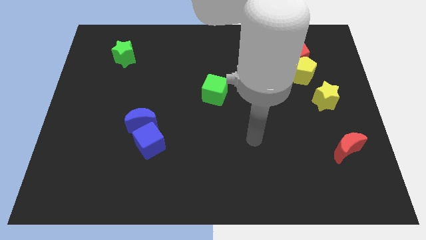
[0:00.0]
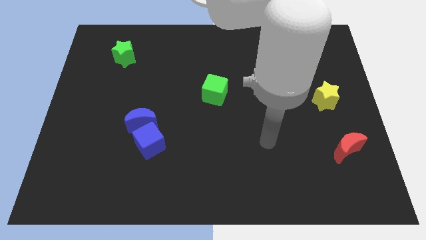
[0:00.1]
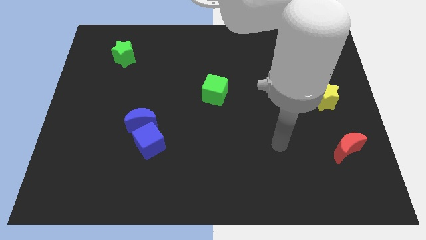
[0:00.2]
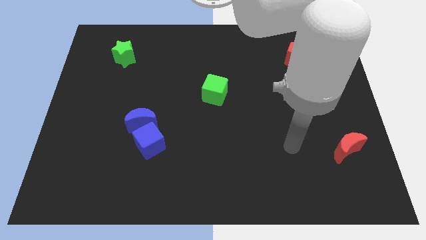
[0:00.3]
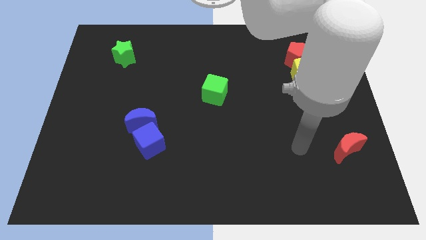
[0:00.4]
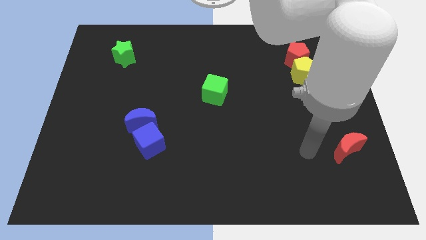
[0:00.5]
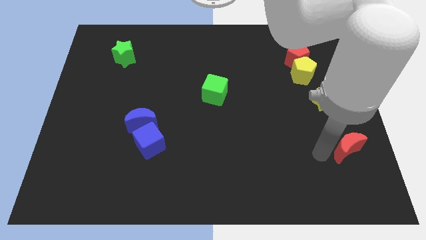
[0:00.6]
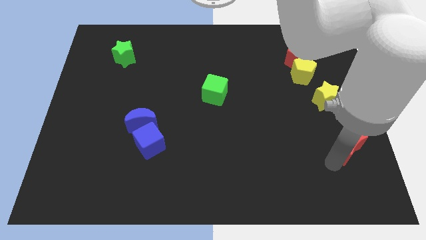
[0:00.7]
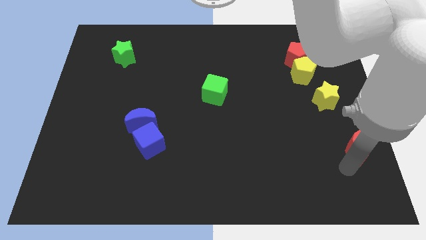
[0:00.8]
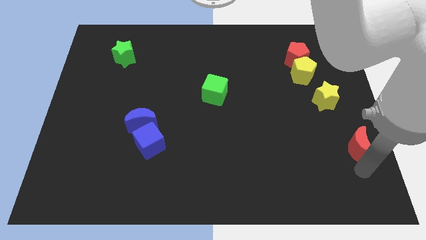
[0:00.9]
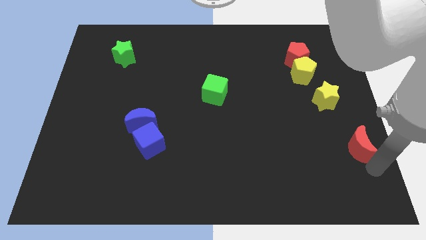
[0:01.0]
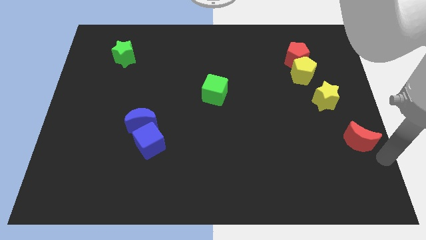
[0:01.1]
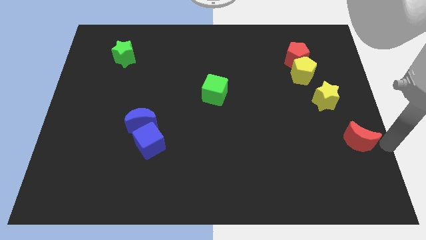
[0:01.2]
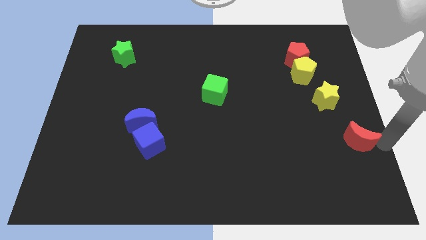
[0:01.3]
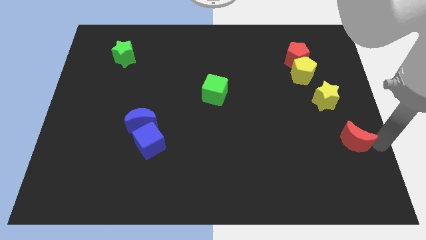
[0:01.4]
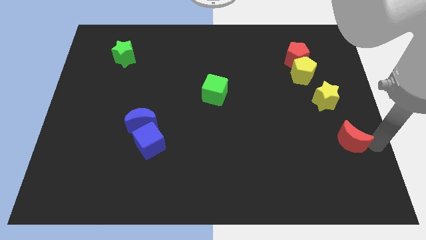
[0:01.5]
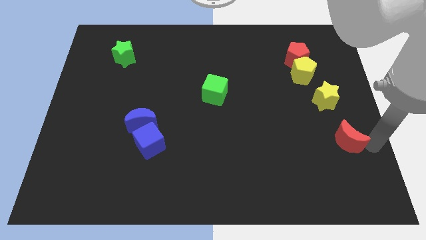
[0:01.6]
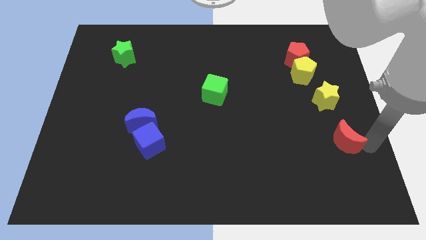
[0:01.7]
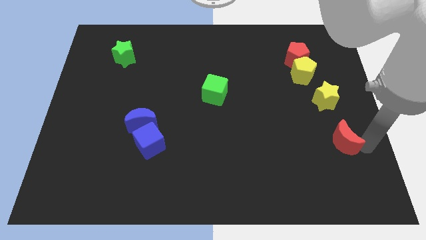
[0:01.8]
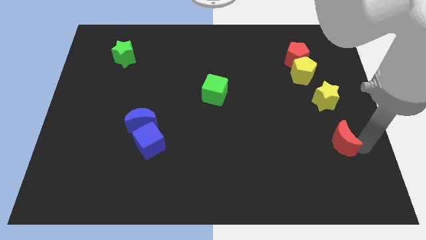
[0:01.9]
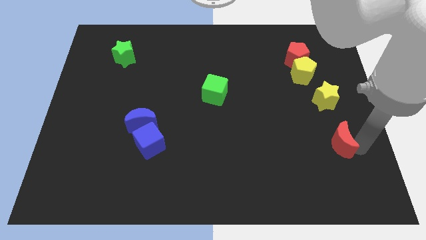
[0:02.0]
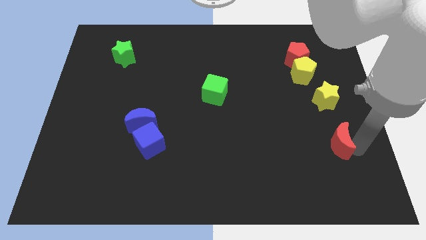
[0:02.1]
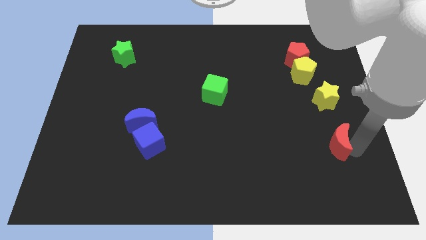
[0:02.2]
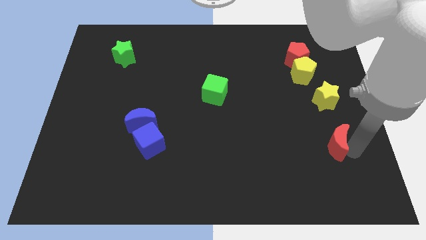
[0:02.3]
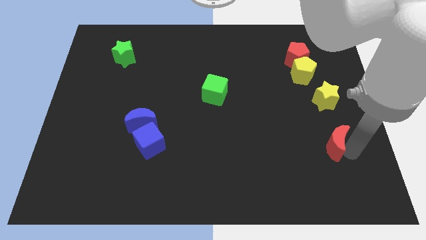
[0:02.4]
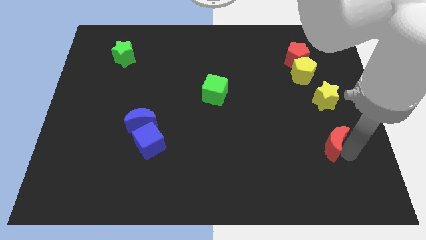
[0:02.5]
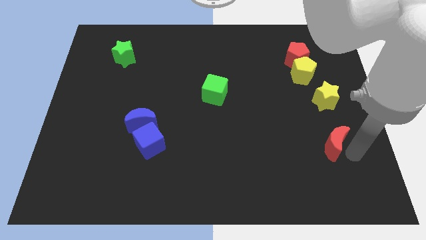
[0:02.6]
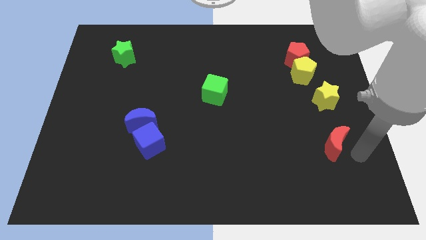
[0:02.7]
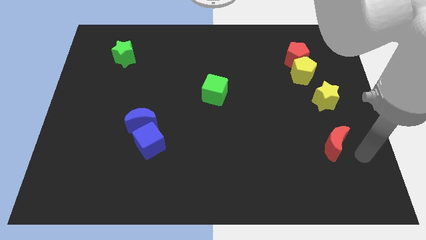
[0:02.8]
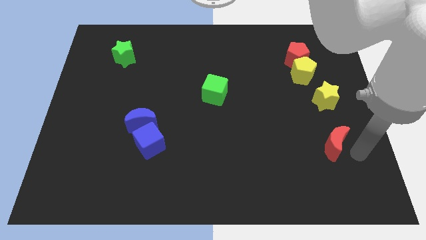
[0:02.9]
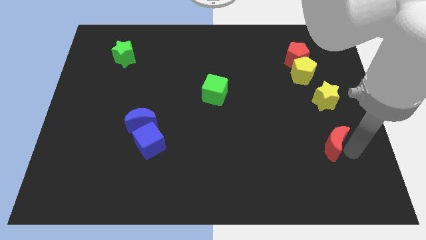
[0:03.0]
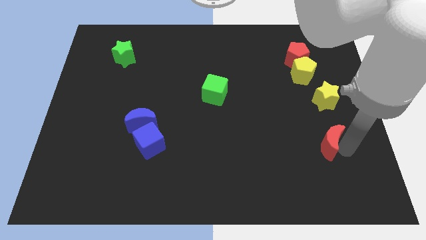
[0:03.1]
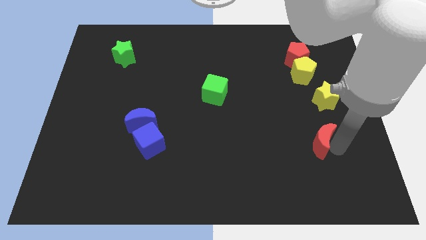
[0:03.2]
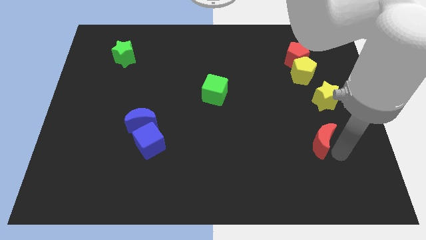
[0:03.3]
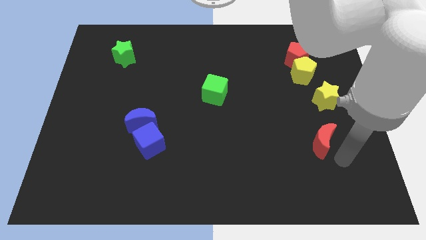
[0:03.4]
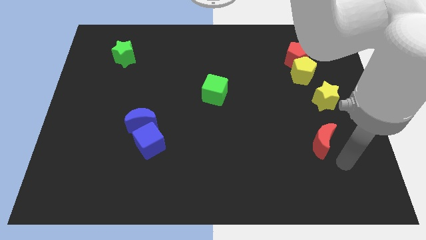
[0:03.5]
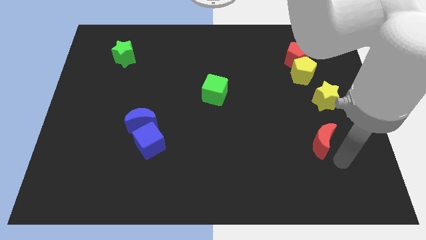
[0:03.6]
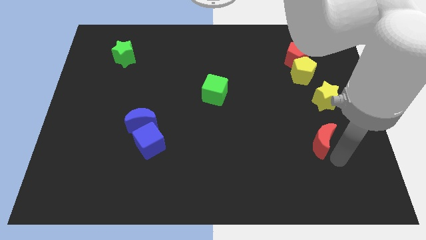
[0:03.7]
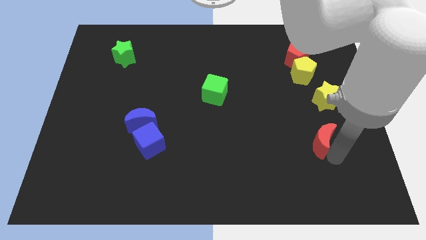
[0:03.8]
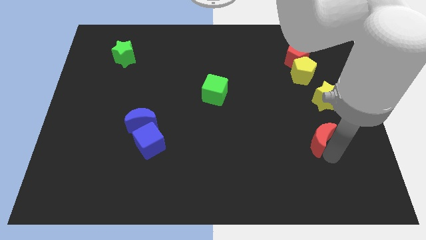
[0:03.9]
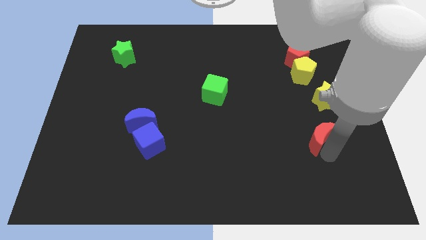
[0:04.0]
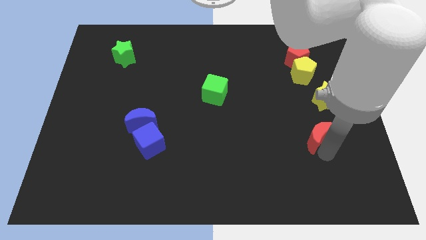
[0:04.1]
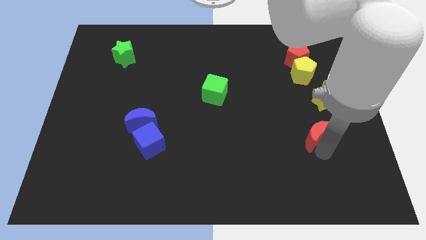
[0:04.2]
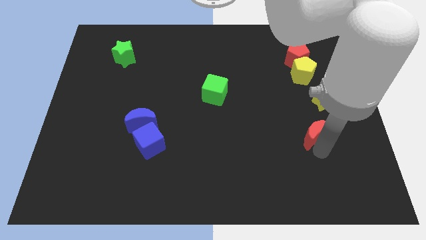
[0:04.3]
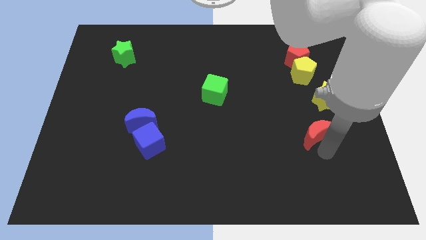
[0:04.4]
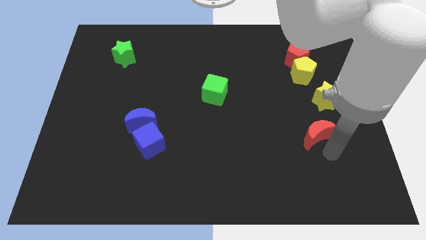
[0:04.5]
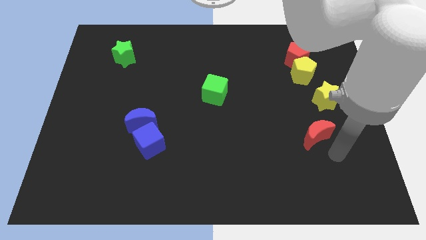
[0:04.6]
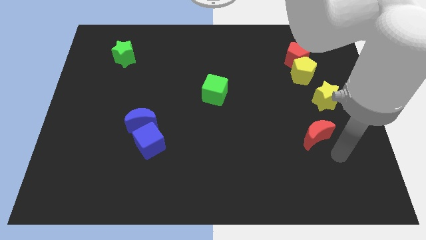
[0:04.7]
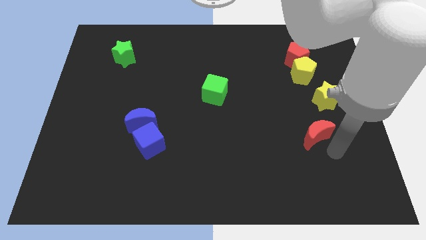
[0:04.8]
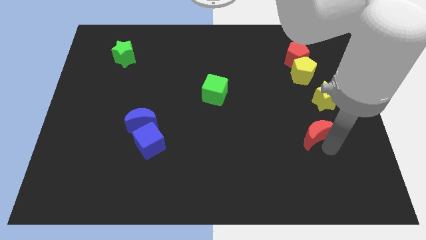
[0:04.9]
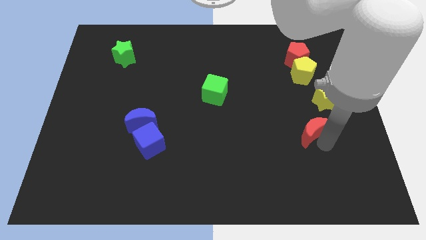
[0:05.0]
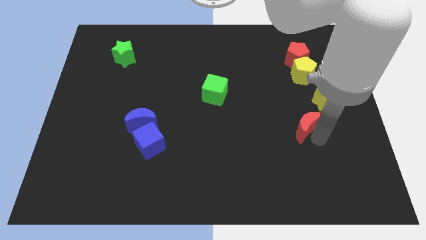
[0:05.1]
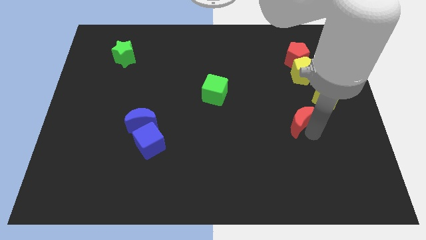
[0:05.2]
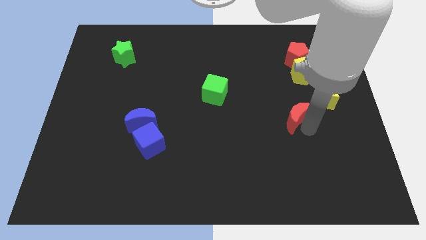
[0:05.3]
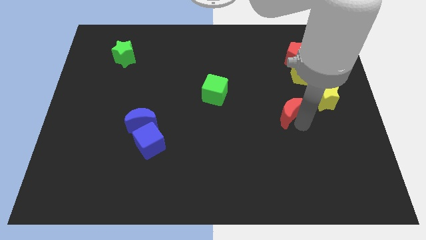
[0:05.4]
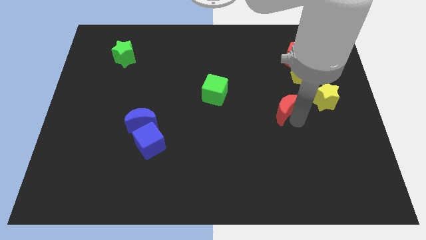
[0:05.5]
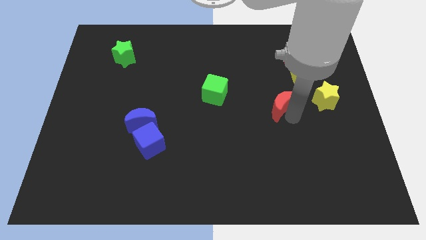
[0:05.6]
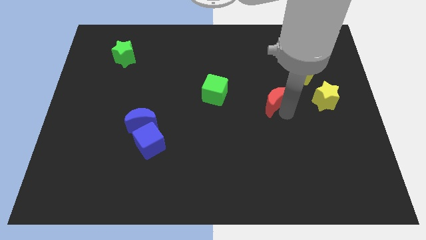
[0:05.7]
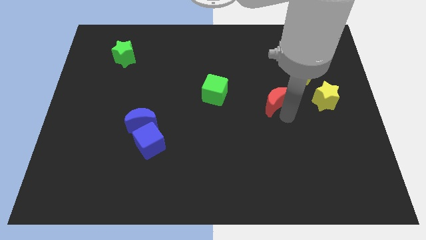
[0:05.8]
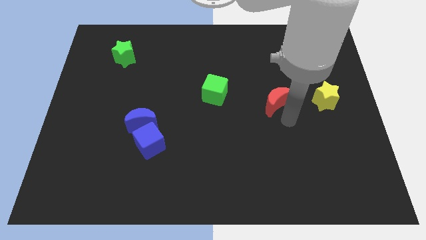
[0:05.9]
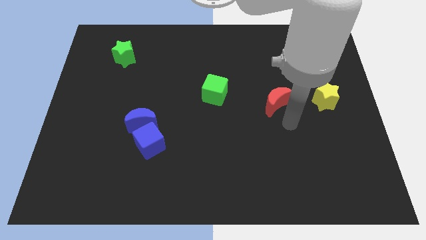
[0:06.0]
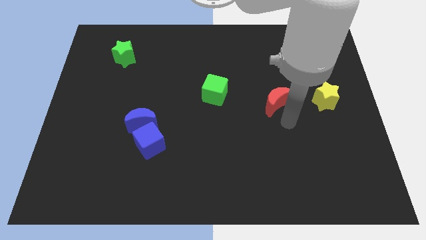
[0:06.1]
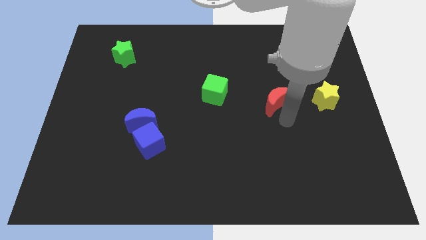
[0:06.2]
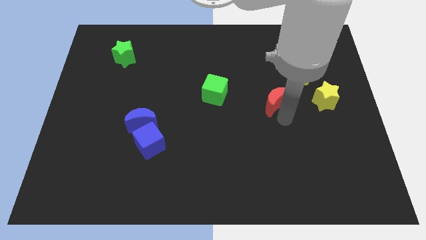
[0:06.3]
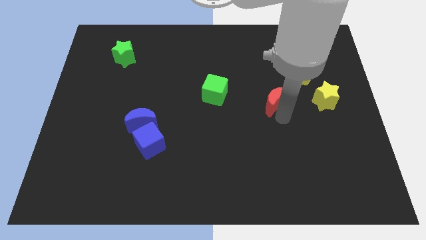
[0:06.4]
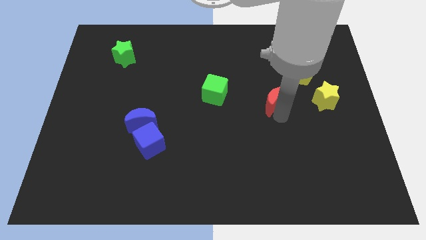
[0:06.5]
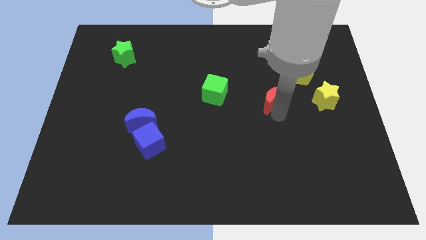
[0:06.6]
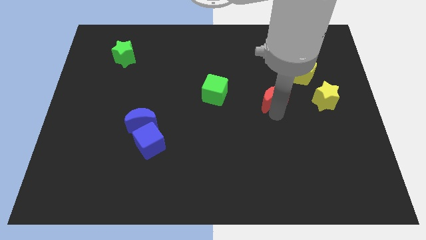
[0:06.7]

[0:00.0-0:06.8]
push the red moon up and then to the left

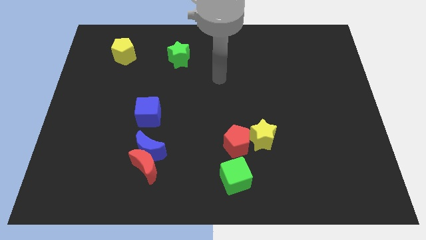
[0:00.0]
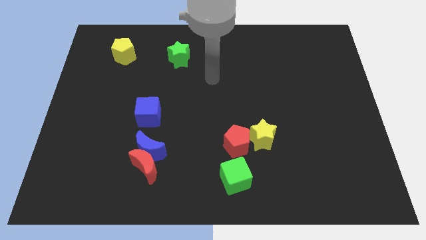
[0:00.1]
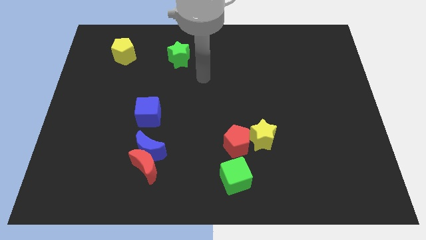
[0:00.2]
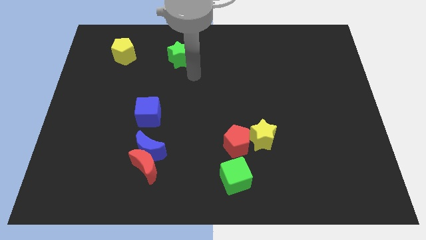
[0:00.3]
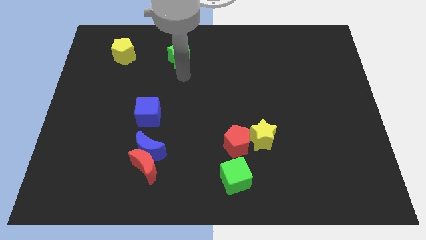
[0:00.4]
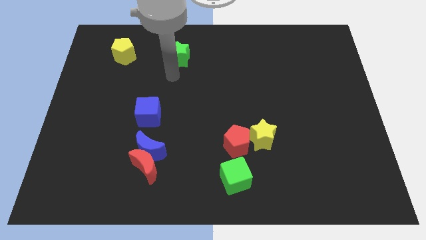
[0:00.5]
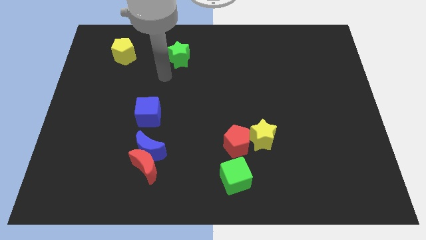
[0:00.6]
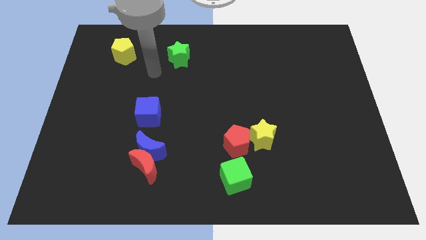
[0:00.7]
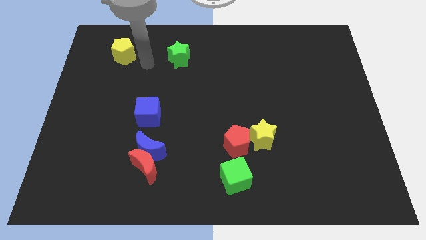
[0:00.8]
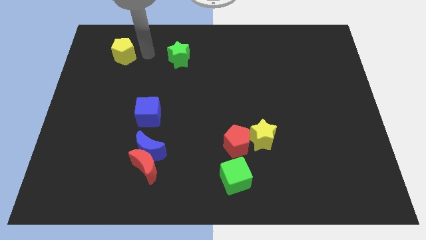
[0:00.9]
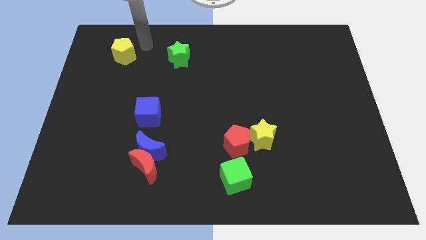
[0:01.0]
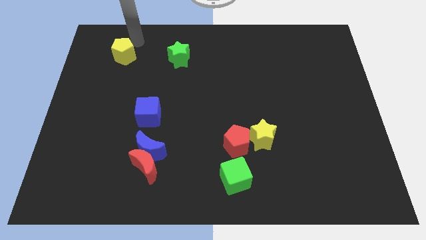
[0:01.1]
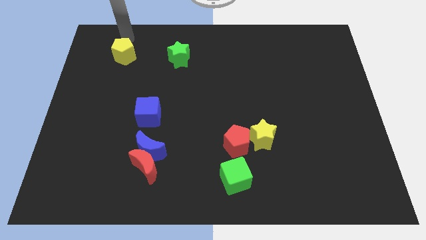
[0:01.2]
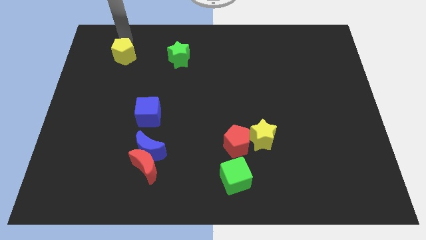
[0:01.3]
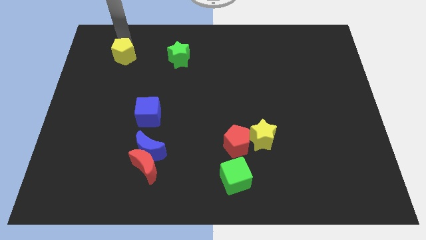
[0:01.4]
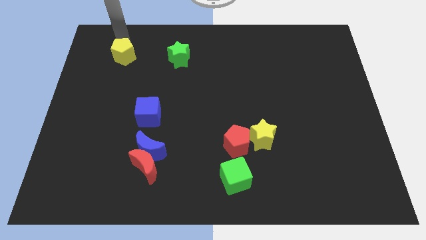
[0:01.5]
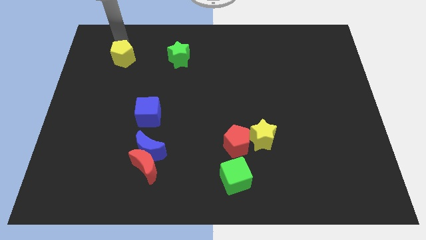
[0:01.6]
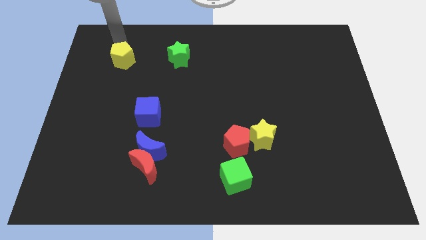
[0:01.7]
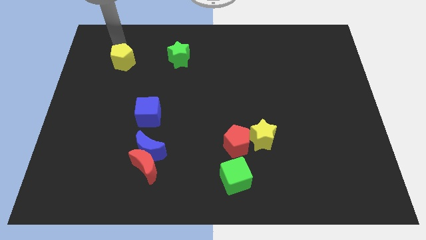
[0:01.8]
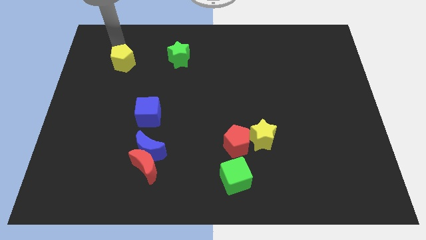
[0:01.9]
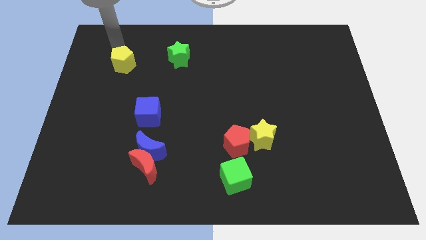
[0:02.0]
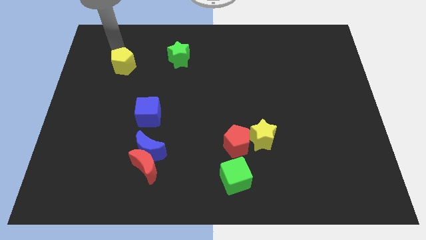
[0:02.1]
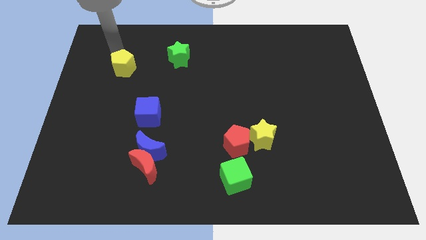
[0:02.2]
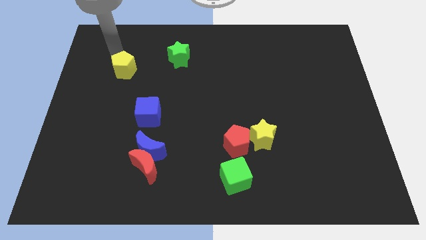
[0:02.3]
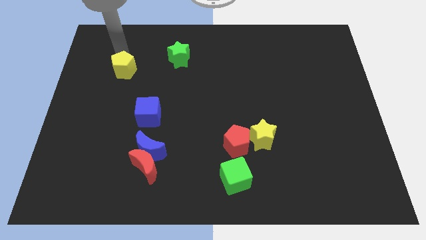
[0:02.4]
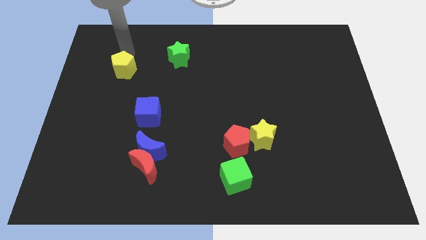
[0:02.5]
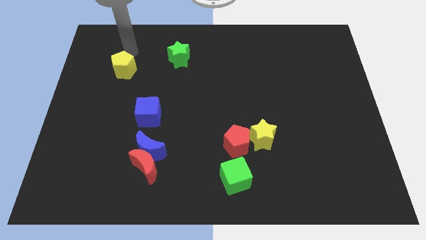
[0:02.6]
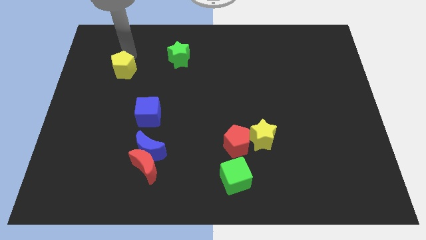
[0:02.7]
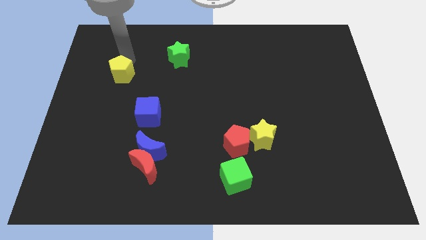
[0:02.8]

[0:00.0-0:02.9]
slide the yellow pentagon a little downwards
